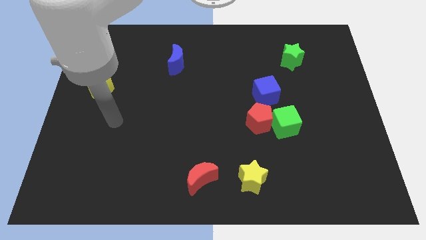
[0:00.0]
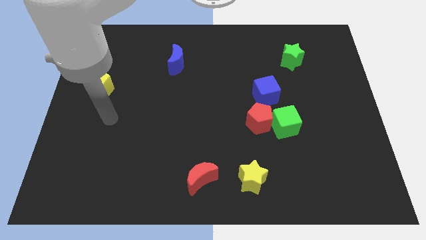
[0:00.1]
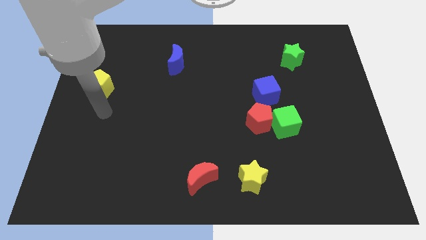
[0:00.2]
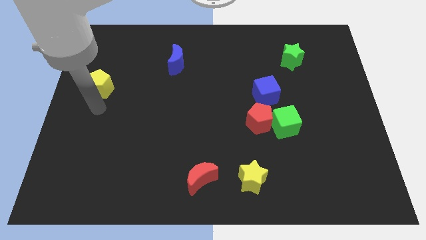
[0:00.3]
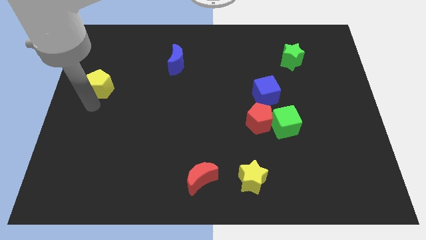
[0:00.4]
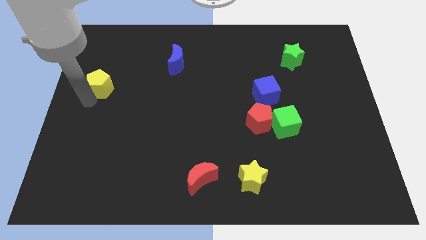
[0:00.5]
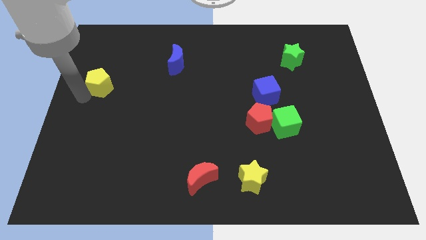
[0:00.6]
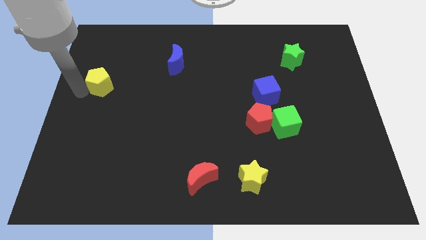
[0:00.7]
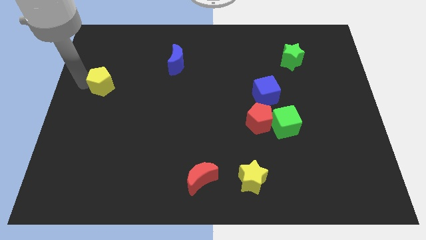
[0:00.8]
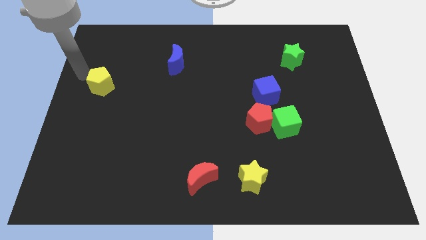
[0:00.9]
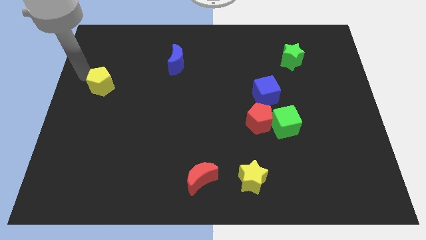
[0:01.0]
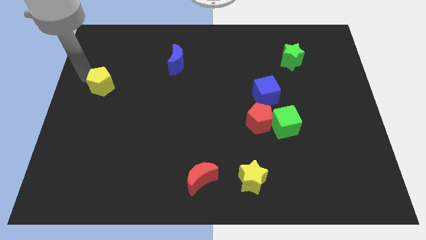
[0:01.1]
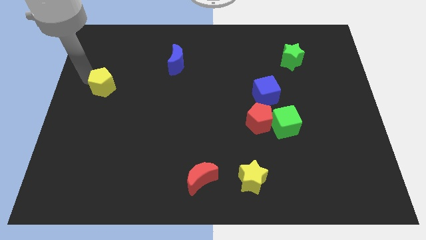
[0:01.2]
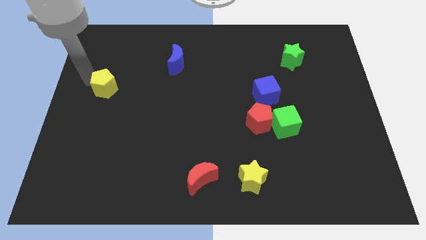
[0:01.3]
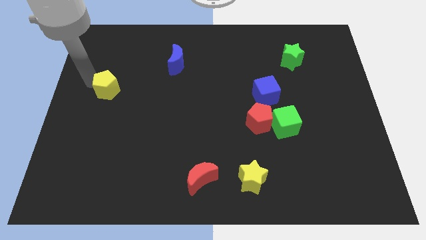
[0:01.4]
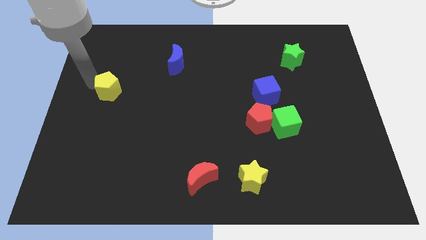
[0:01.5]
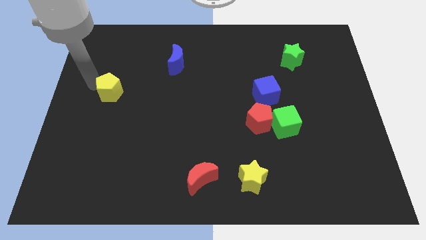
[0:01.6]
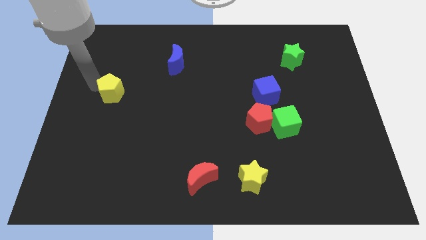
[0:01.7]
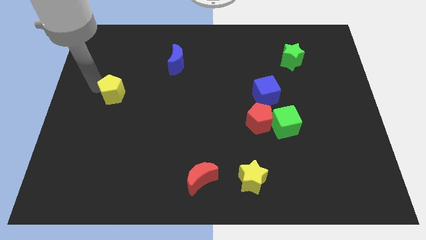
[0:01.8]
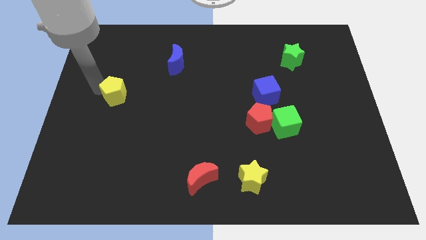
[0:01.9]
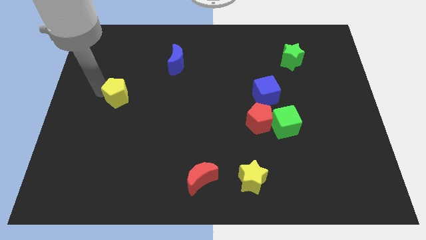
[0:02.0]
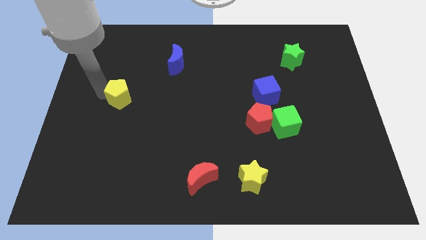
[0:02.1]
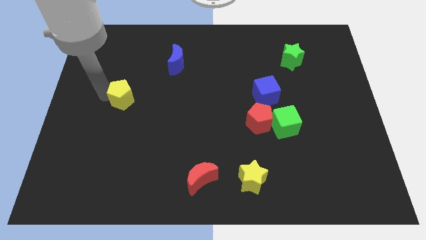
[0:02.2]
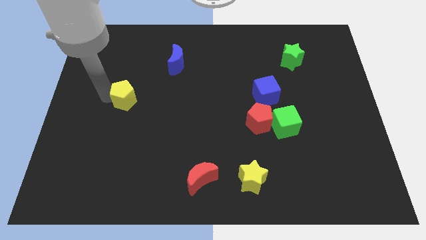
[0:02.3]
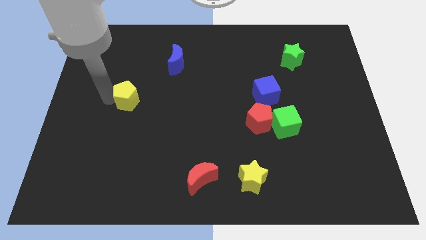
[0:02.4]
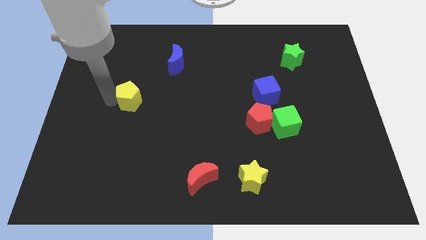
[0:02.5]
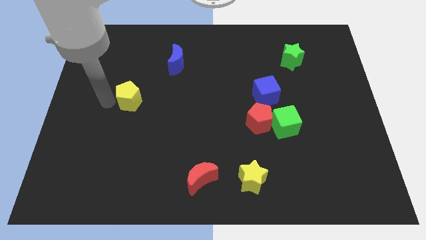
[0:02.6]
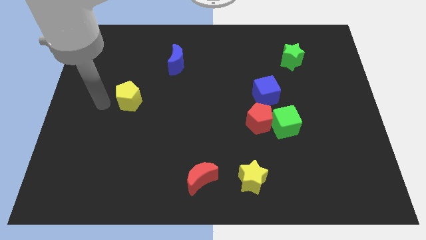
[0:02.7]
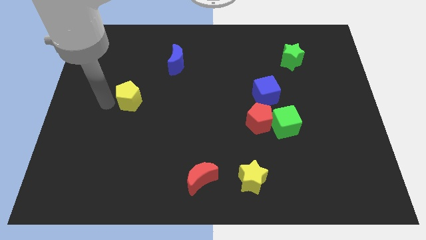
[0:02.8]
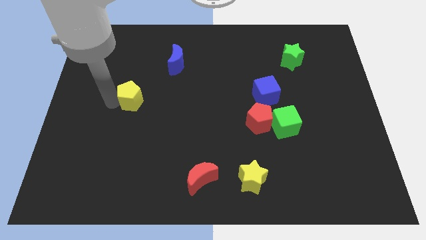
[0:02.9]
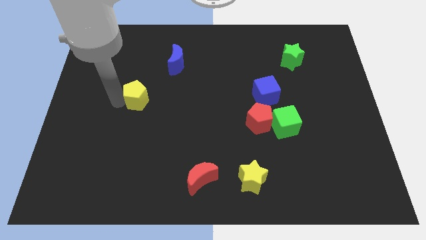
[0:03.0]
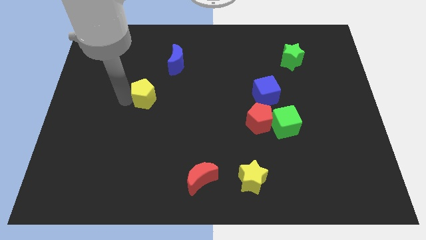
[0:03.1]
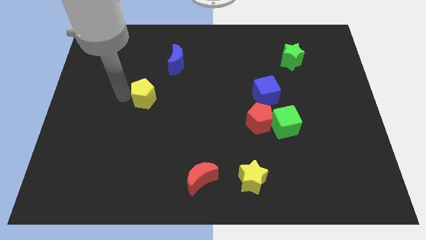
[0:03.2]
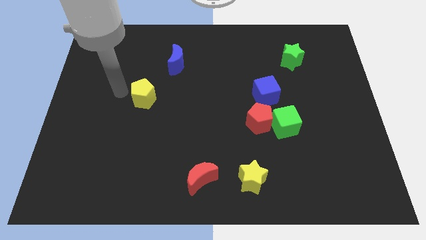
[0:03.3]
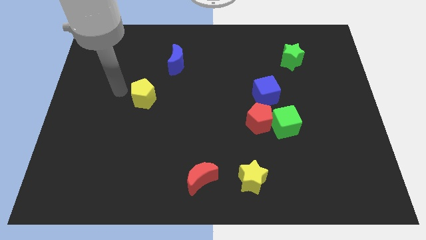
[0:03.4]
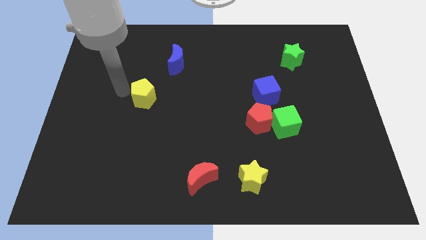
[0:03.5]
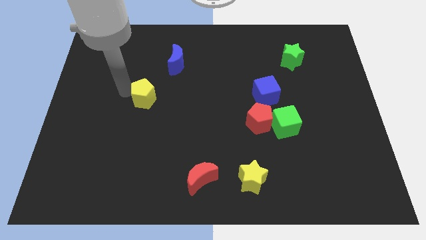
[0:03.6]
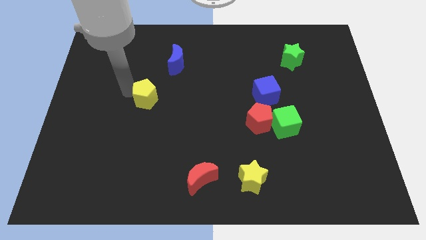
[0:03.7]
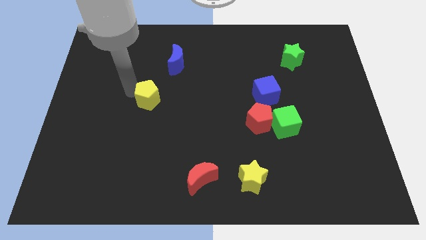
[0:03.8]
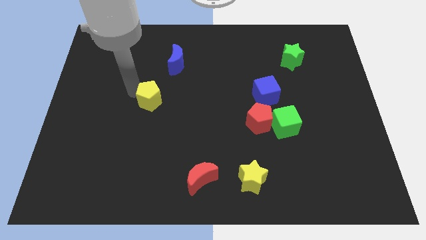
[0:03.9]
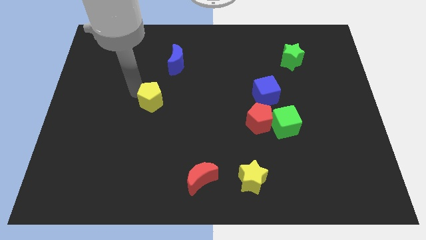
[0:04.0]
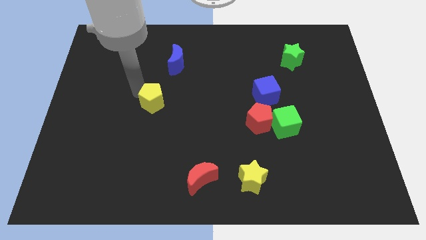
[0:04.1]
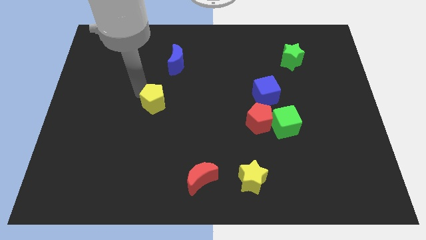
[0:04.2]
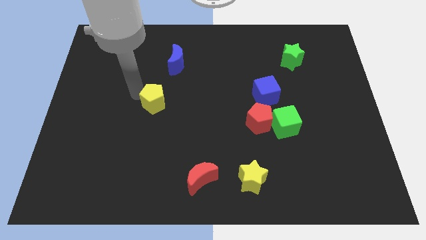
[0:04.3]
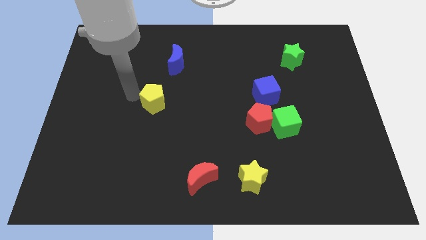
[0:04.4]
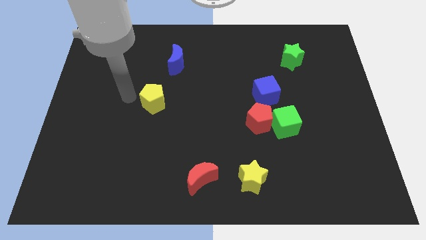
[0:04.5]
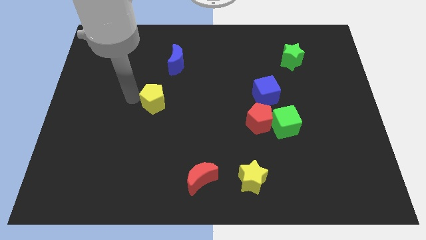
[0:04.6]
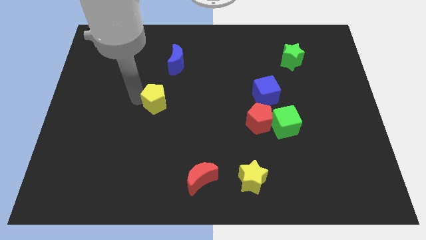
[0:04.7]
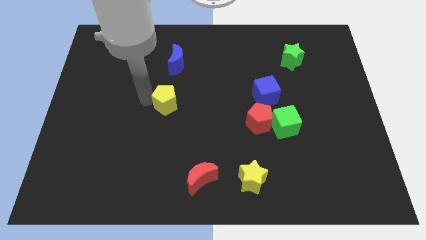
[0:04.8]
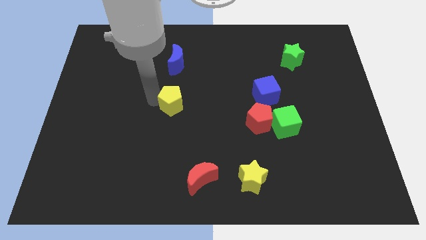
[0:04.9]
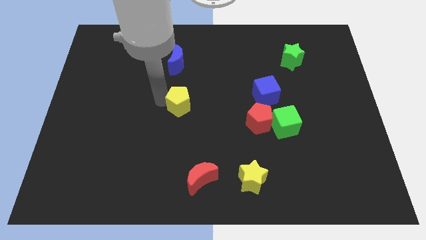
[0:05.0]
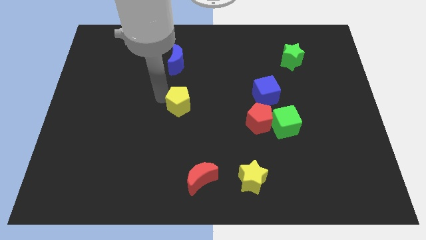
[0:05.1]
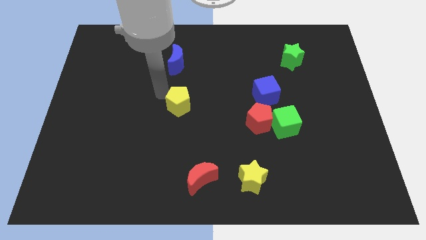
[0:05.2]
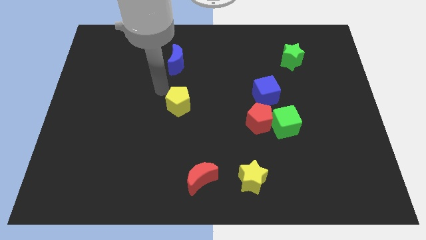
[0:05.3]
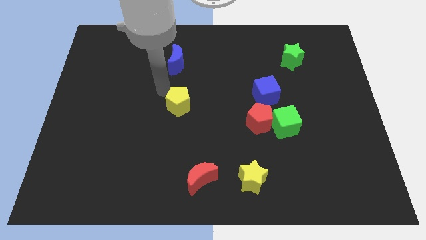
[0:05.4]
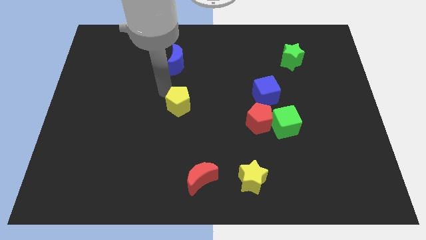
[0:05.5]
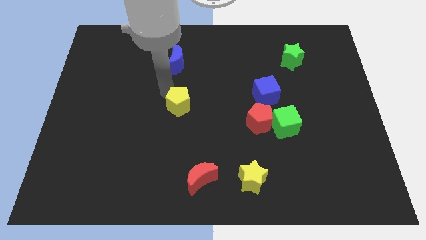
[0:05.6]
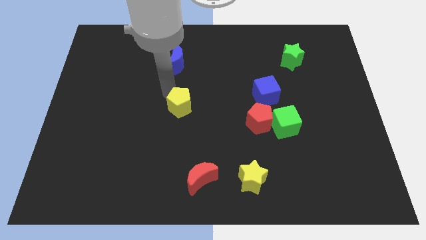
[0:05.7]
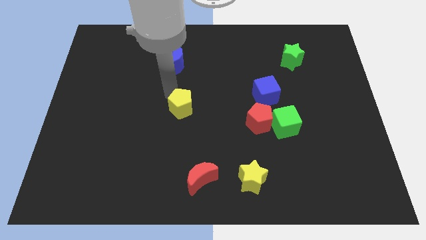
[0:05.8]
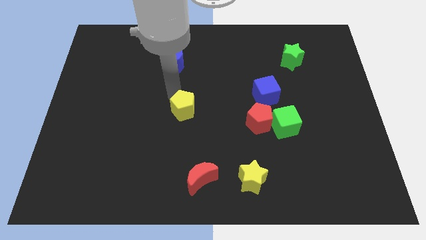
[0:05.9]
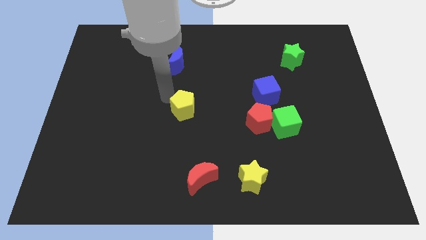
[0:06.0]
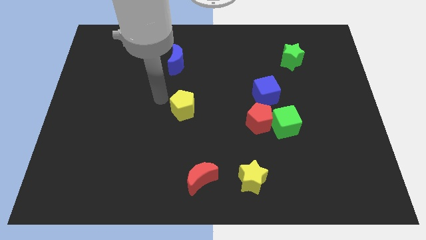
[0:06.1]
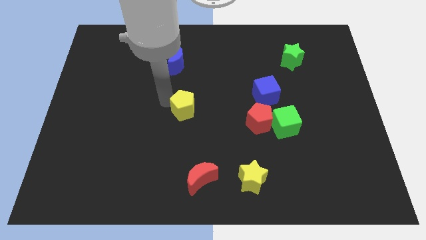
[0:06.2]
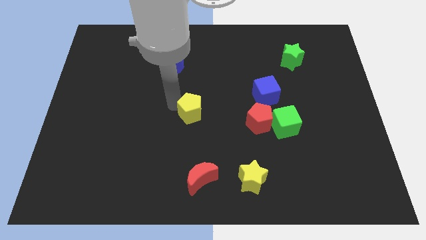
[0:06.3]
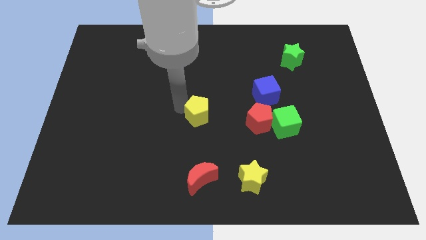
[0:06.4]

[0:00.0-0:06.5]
move the yellow pentagon to the left of the red pentagon
